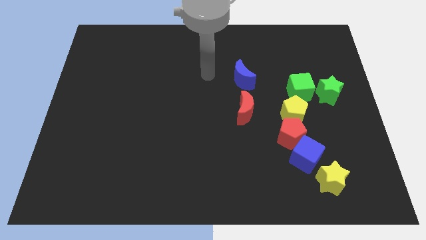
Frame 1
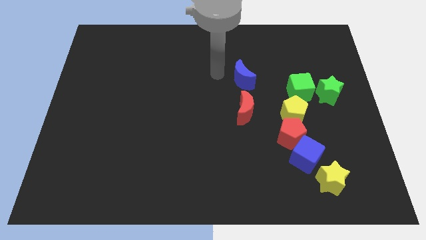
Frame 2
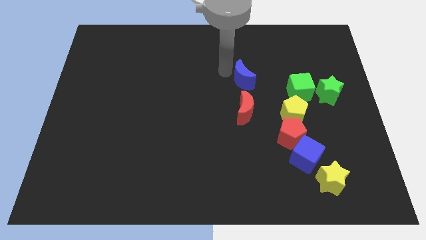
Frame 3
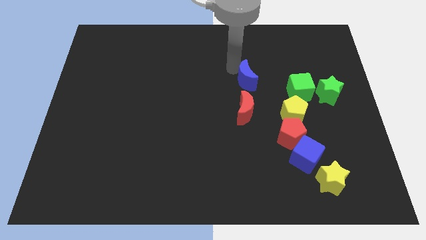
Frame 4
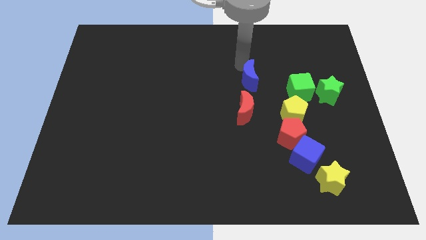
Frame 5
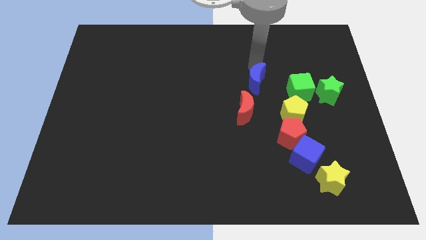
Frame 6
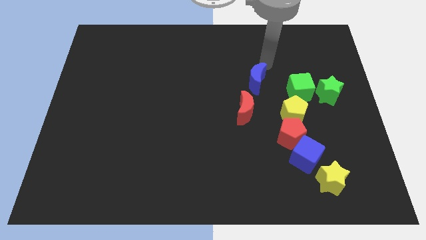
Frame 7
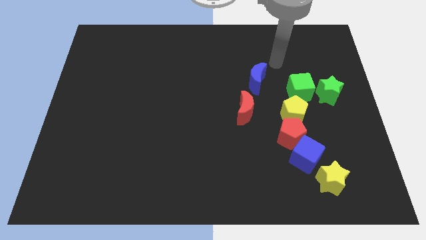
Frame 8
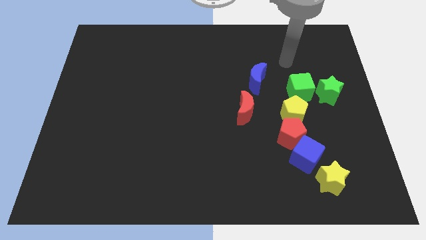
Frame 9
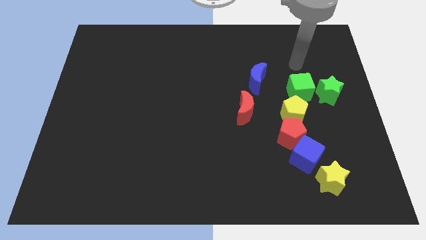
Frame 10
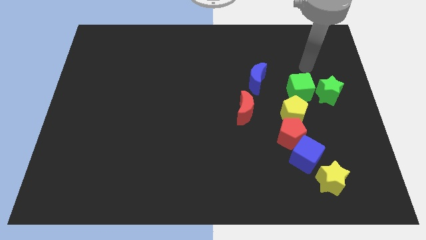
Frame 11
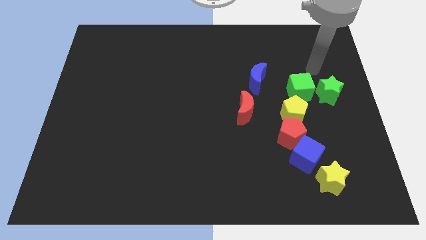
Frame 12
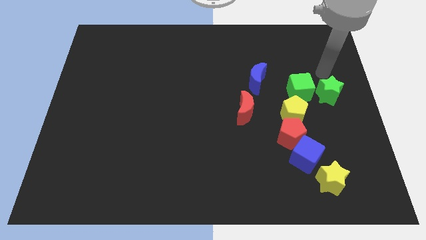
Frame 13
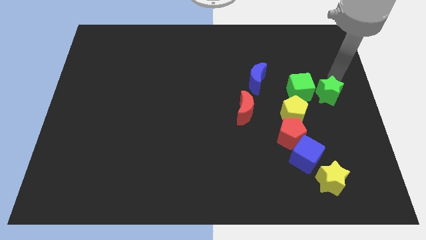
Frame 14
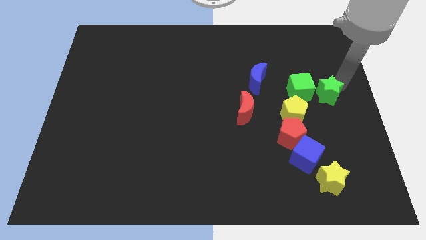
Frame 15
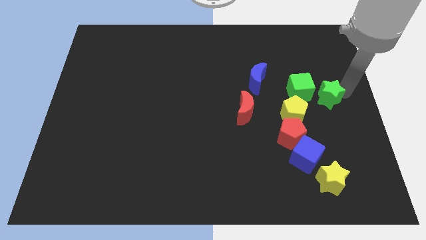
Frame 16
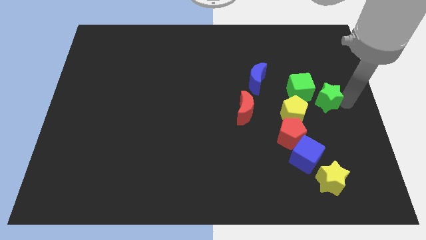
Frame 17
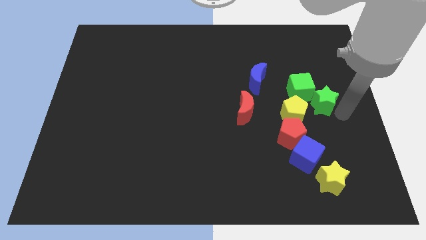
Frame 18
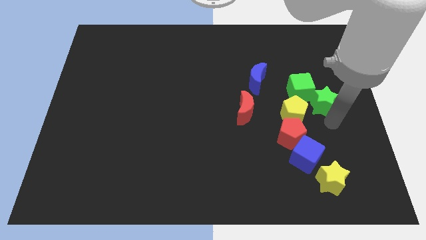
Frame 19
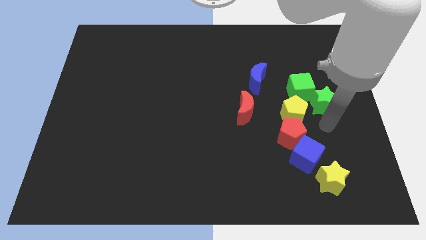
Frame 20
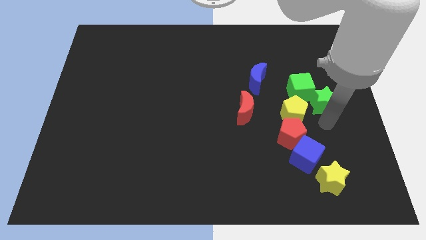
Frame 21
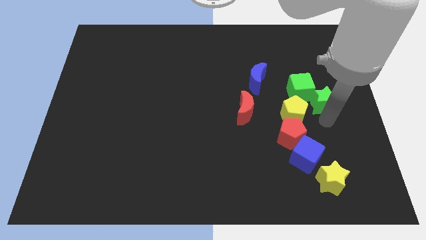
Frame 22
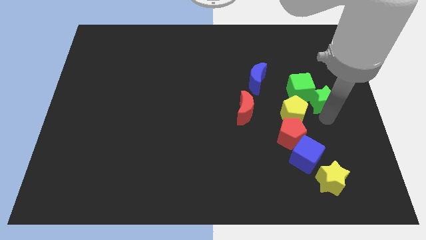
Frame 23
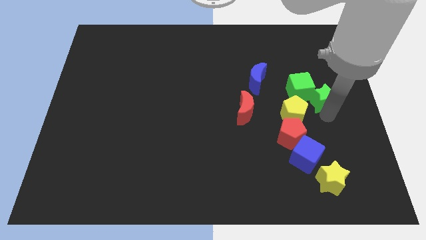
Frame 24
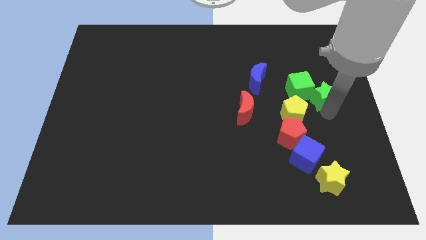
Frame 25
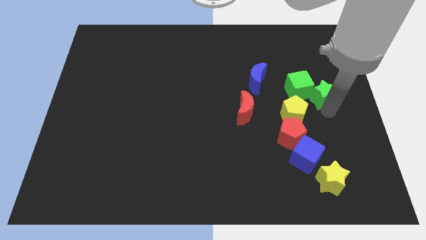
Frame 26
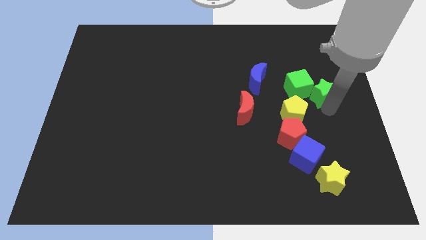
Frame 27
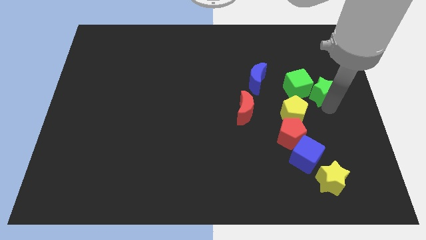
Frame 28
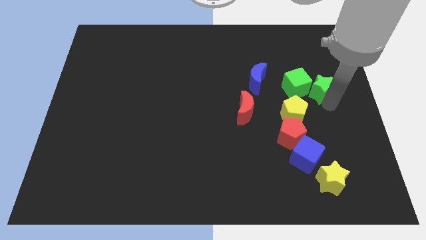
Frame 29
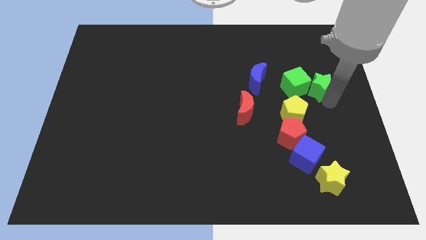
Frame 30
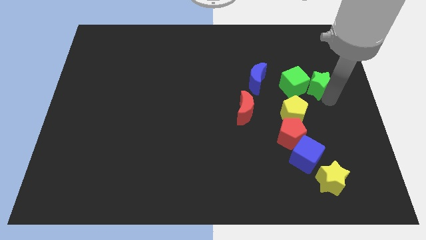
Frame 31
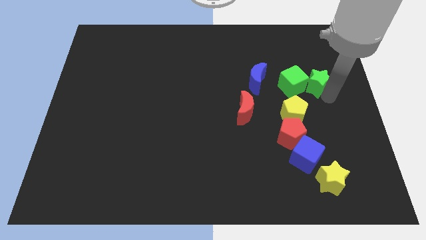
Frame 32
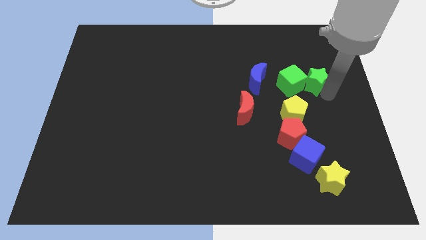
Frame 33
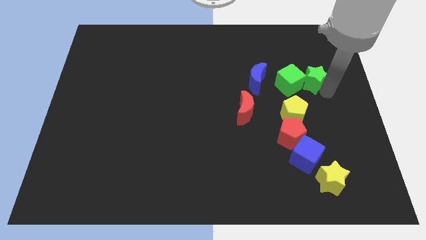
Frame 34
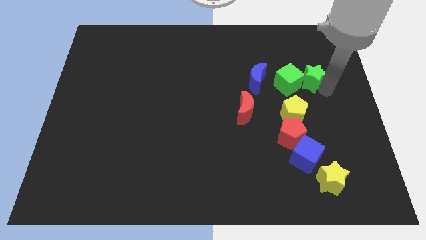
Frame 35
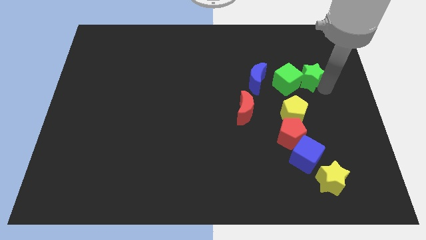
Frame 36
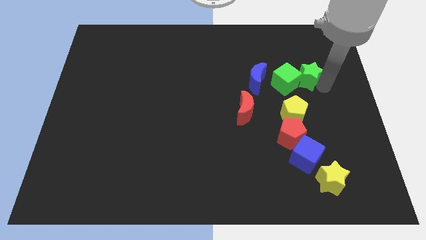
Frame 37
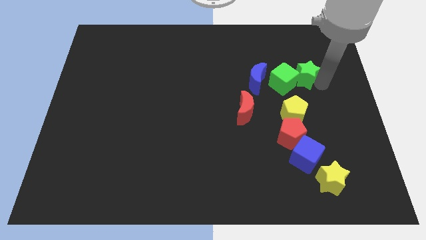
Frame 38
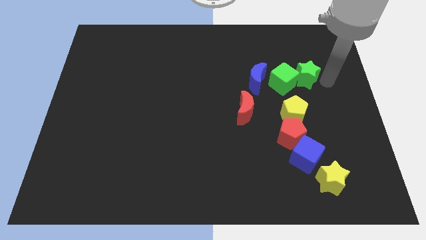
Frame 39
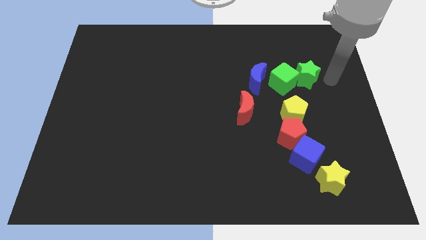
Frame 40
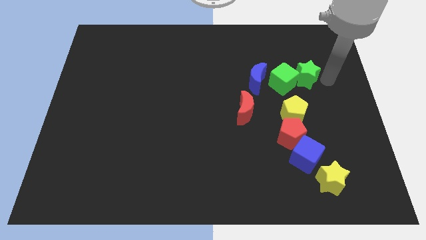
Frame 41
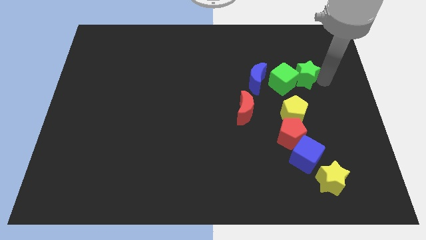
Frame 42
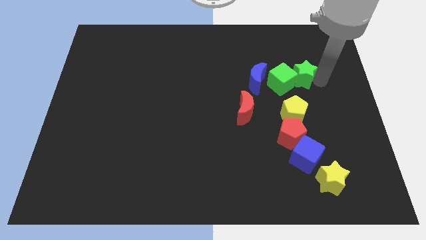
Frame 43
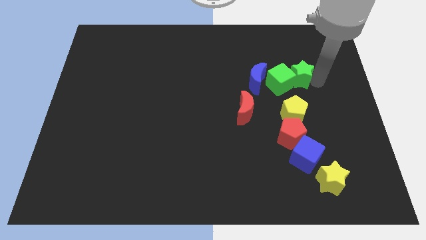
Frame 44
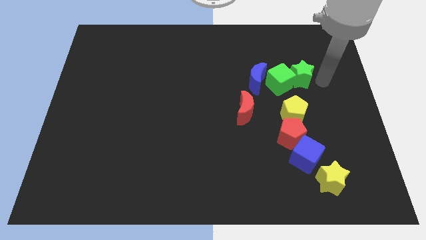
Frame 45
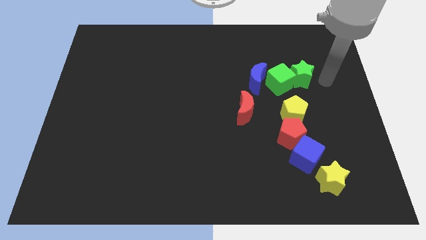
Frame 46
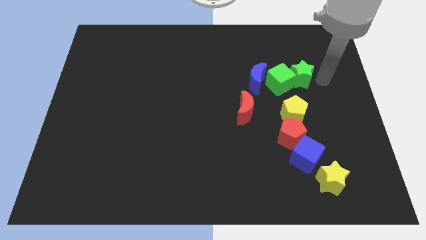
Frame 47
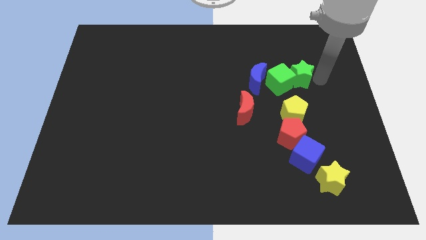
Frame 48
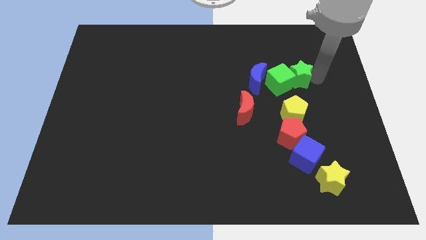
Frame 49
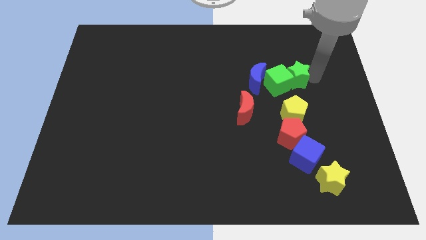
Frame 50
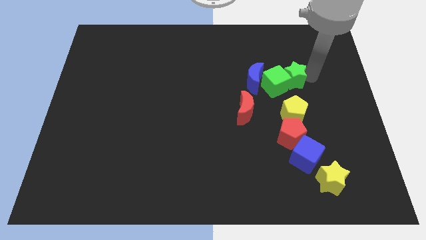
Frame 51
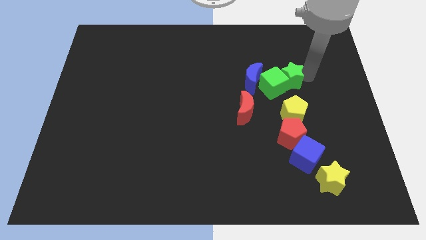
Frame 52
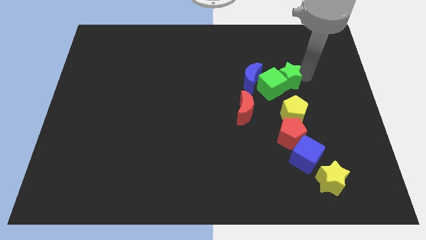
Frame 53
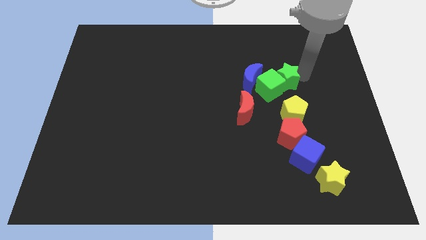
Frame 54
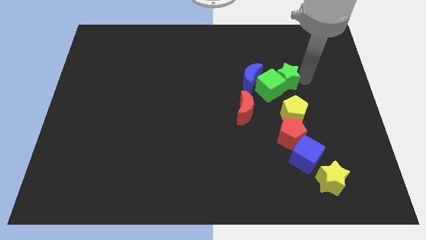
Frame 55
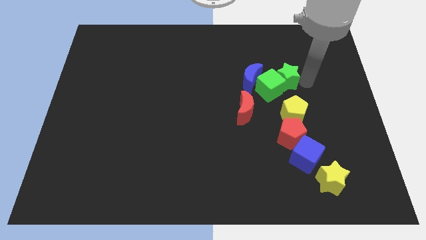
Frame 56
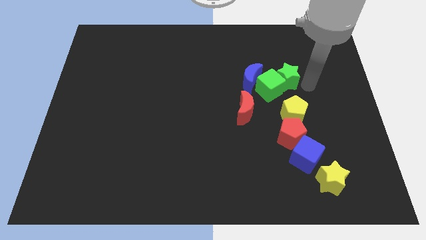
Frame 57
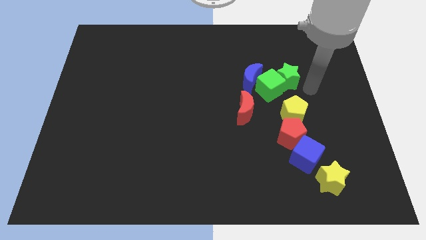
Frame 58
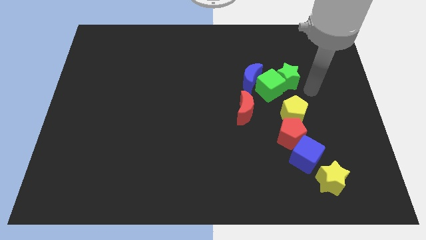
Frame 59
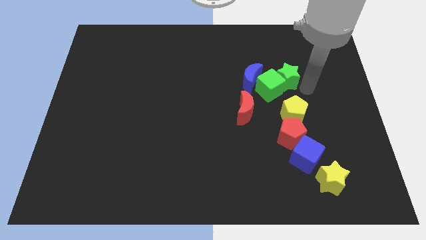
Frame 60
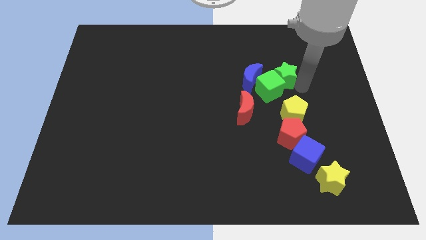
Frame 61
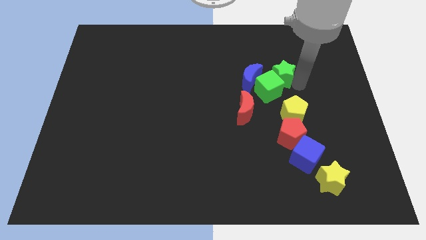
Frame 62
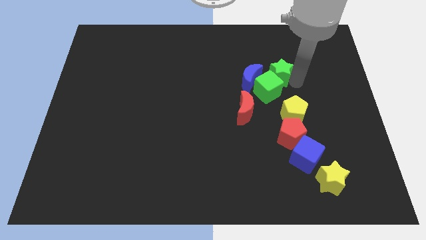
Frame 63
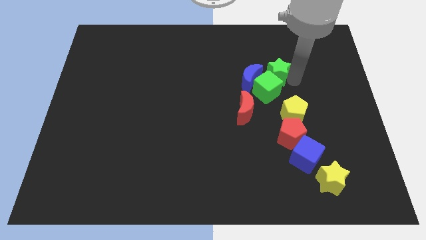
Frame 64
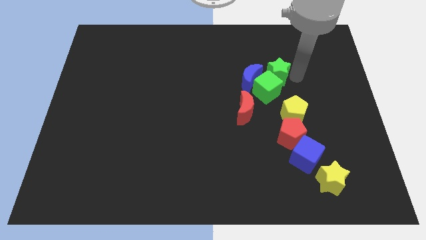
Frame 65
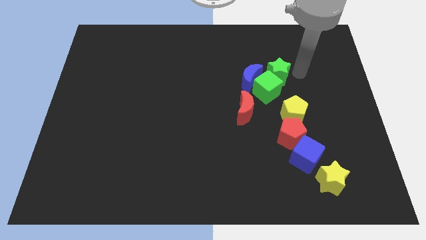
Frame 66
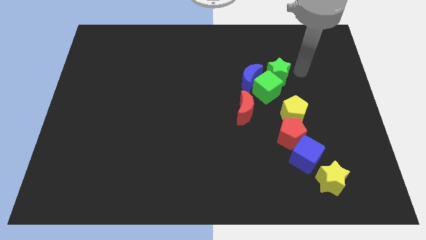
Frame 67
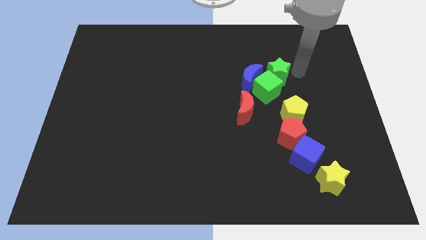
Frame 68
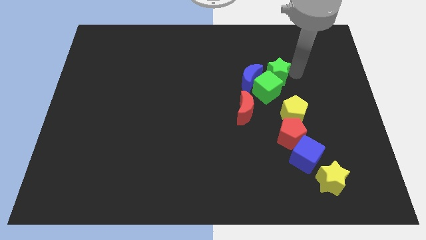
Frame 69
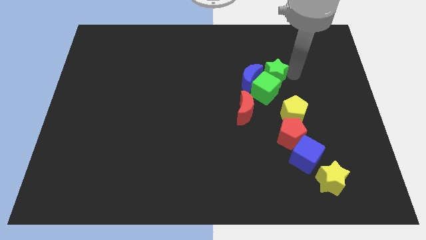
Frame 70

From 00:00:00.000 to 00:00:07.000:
slide the green star to the blue moon
